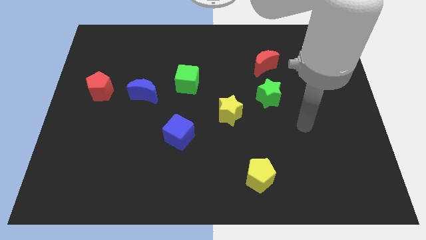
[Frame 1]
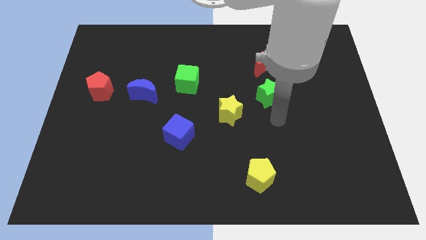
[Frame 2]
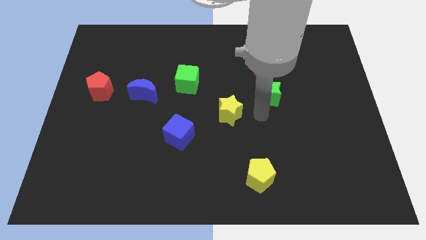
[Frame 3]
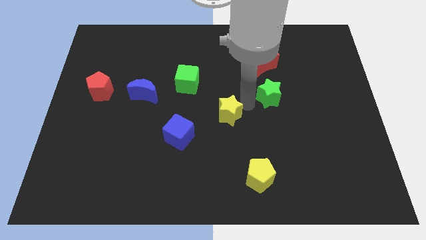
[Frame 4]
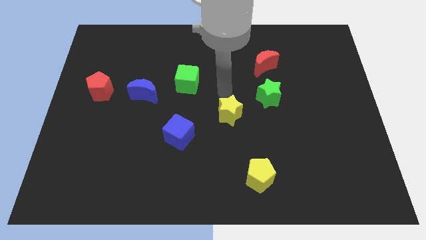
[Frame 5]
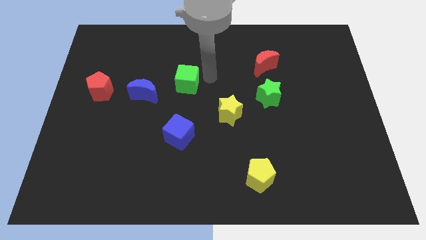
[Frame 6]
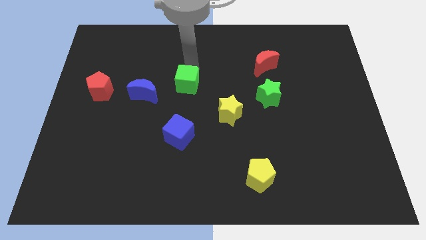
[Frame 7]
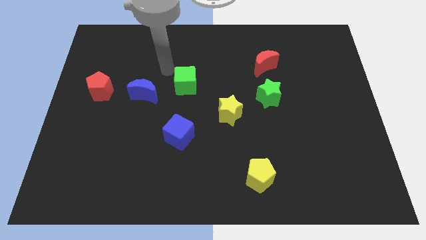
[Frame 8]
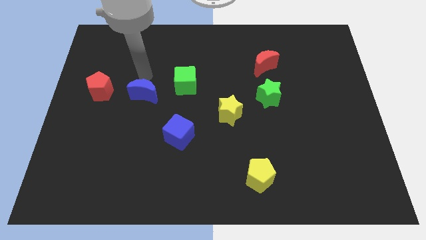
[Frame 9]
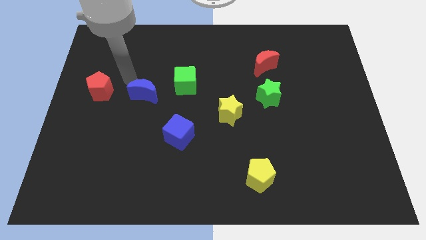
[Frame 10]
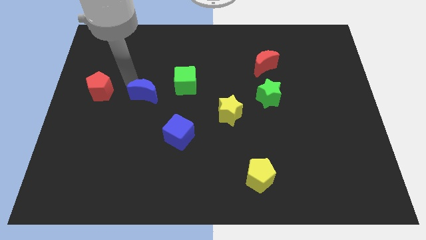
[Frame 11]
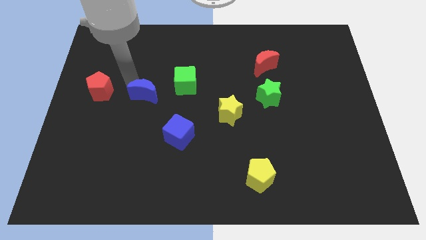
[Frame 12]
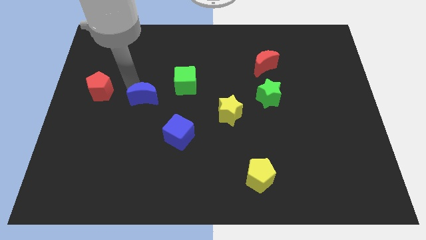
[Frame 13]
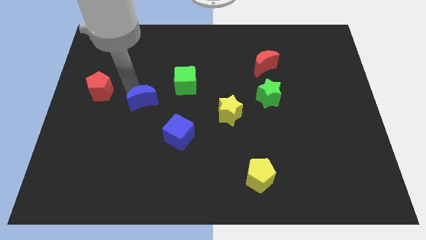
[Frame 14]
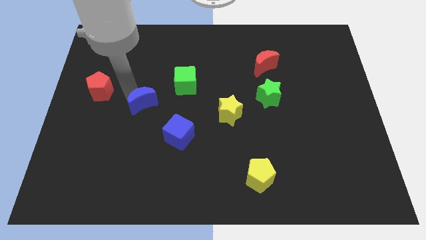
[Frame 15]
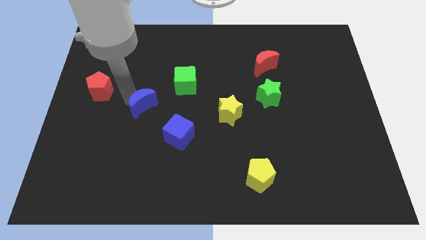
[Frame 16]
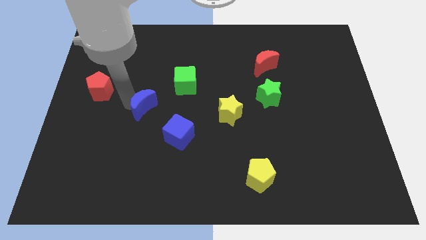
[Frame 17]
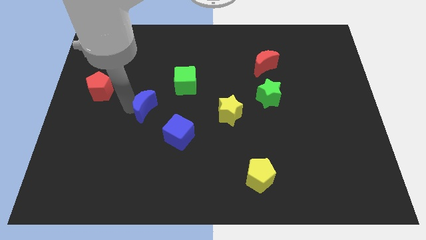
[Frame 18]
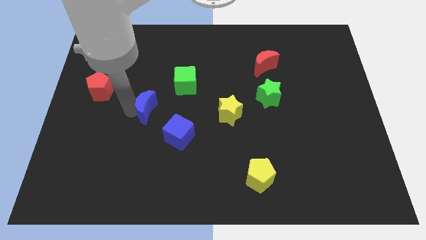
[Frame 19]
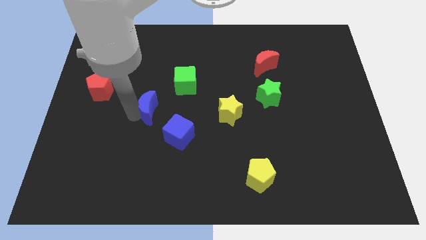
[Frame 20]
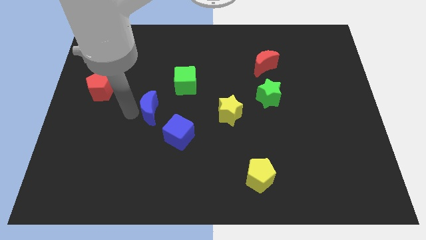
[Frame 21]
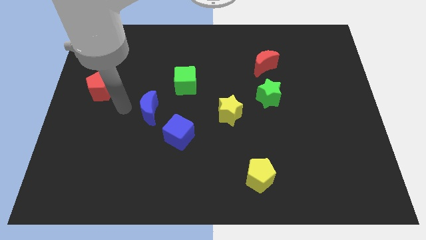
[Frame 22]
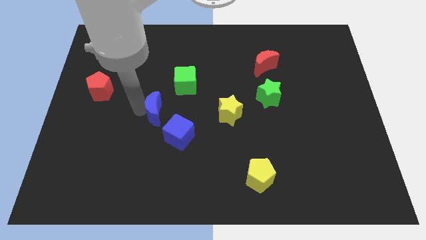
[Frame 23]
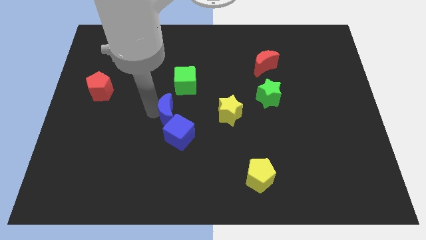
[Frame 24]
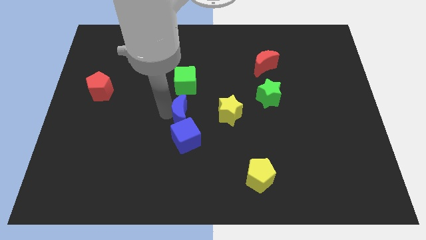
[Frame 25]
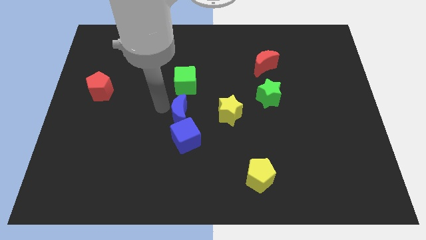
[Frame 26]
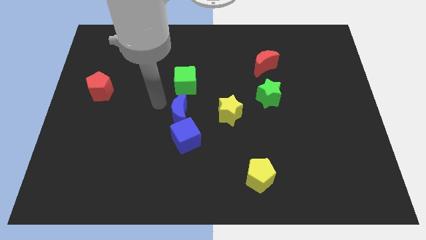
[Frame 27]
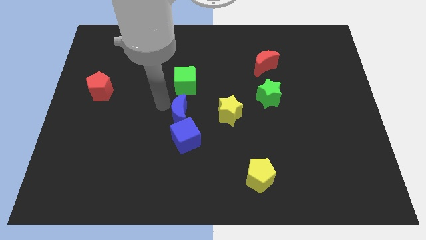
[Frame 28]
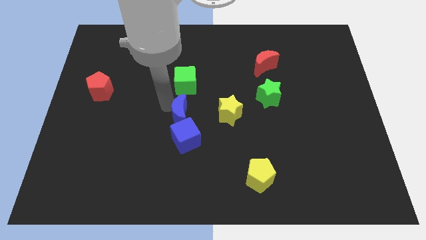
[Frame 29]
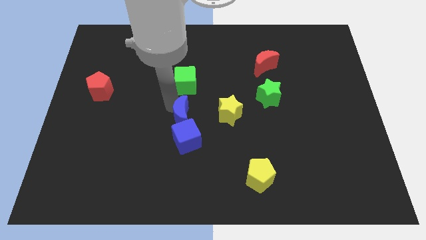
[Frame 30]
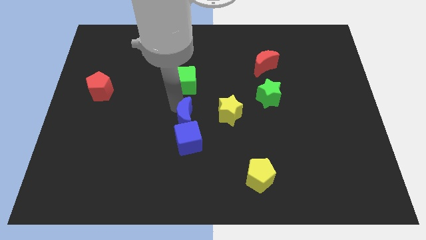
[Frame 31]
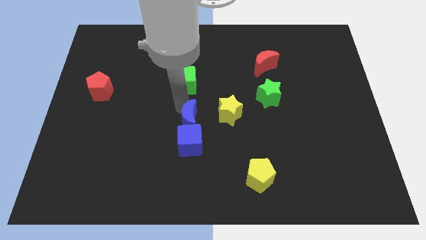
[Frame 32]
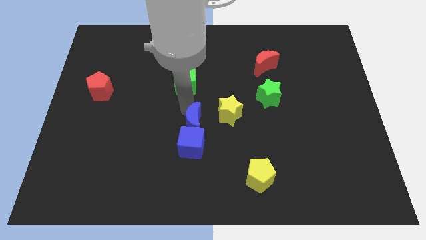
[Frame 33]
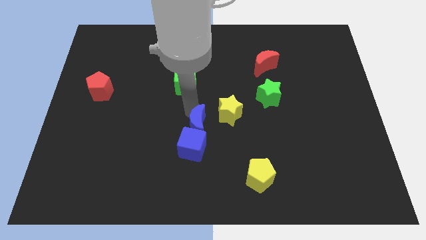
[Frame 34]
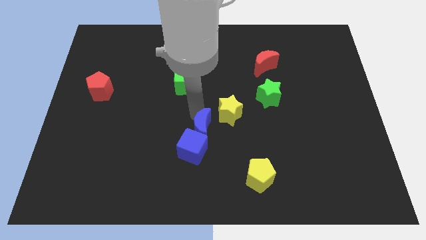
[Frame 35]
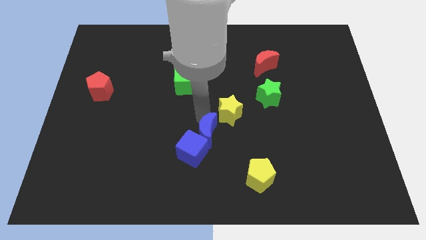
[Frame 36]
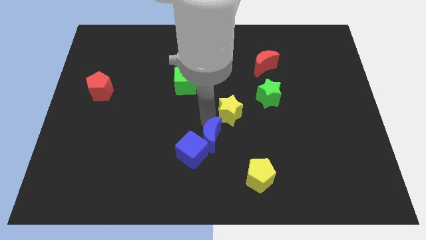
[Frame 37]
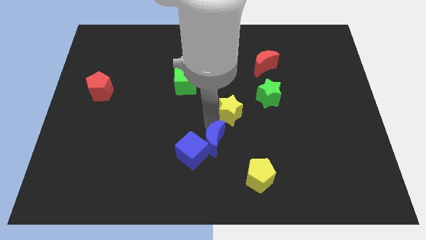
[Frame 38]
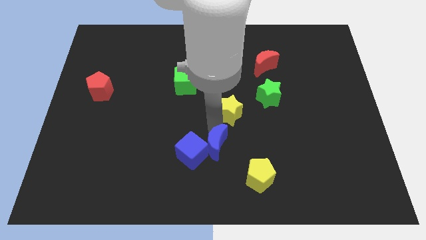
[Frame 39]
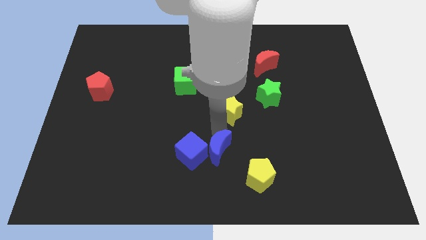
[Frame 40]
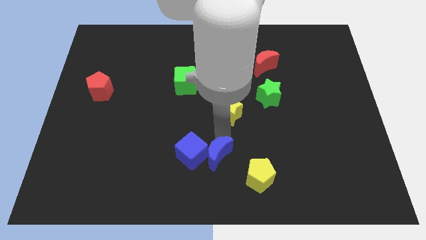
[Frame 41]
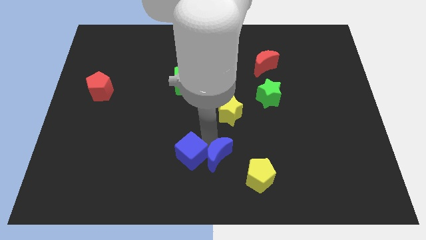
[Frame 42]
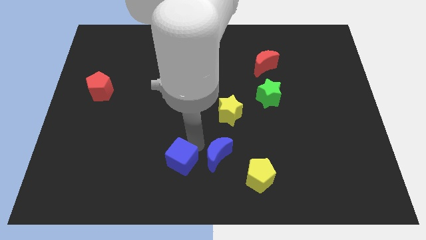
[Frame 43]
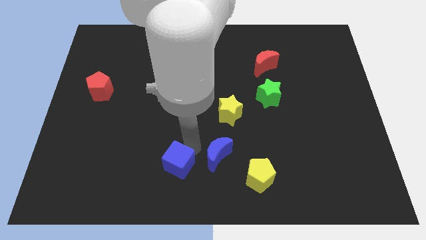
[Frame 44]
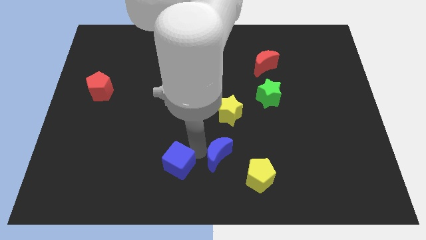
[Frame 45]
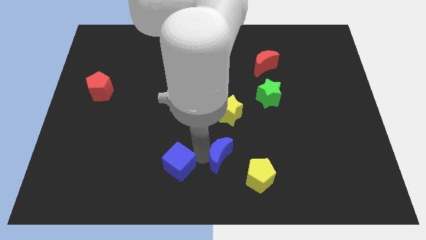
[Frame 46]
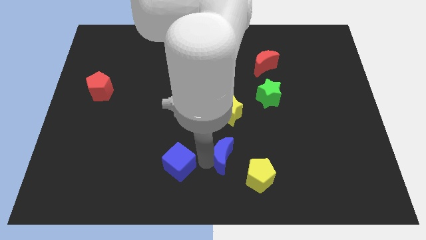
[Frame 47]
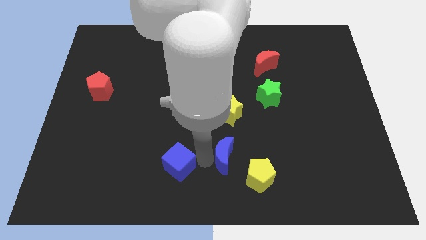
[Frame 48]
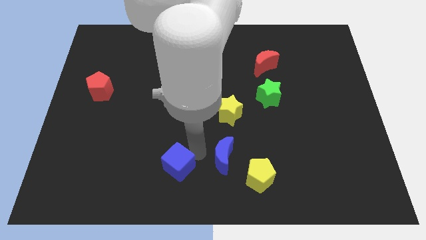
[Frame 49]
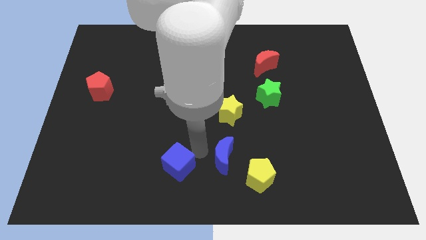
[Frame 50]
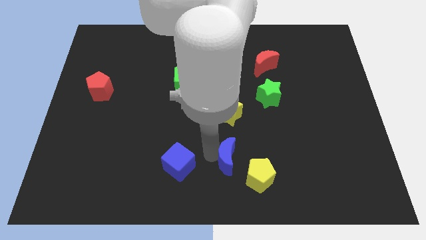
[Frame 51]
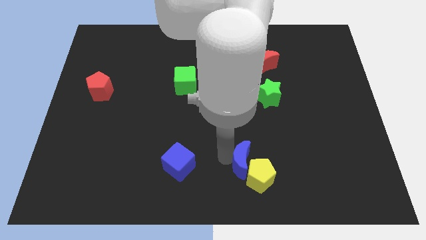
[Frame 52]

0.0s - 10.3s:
put the blue moon next to the yellow pentagon

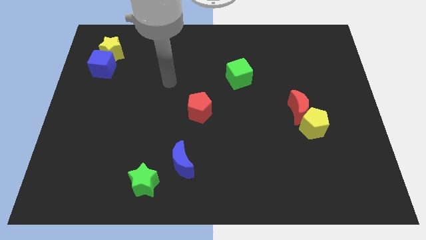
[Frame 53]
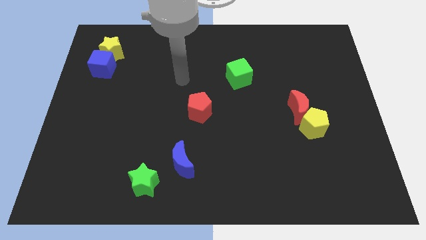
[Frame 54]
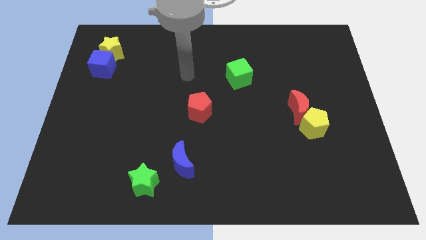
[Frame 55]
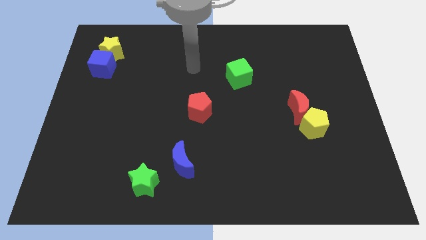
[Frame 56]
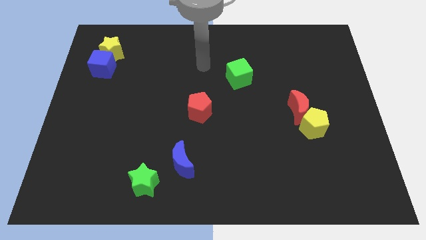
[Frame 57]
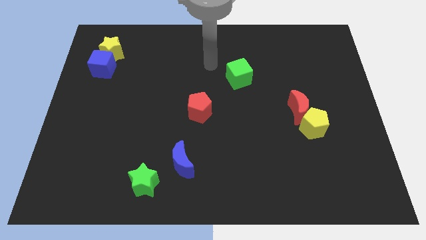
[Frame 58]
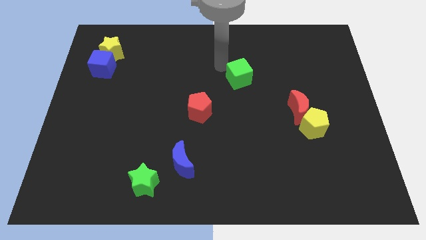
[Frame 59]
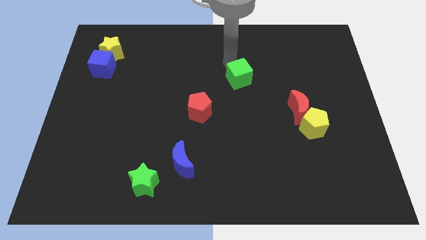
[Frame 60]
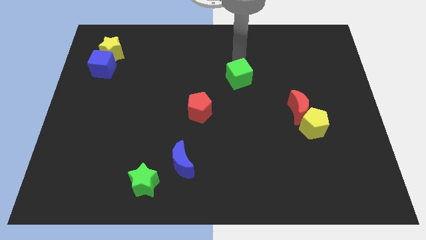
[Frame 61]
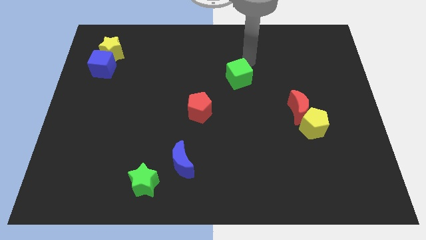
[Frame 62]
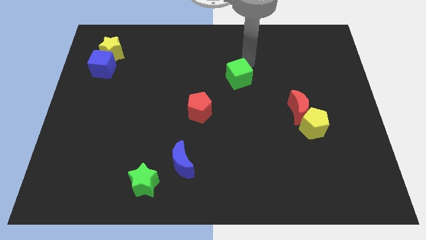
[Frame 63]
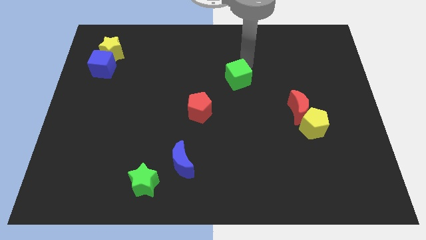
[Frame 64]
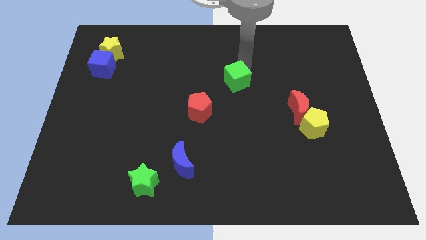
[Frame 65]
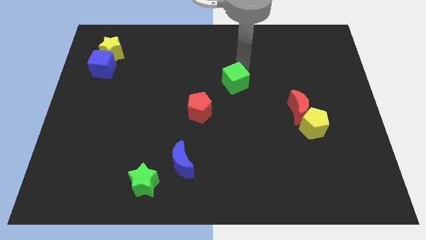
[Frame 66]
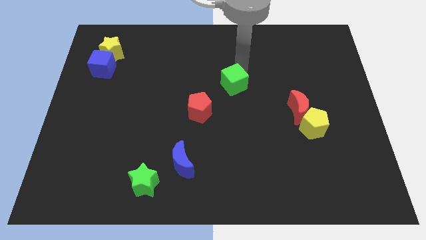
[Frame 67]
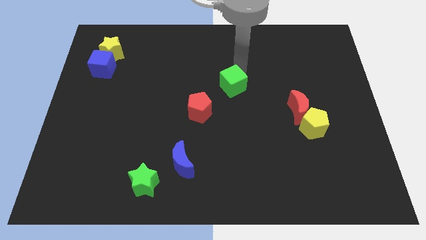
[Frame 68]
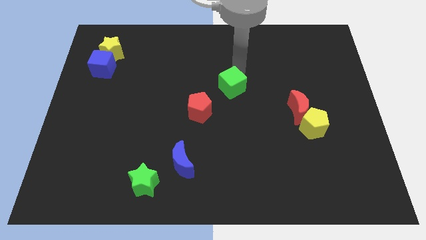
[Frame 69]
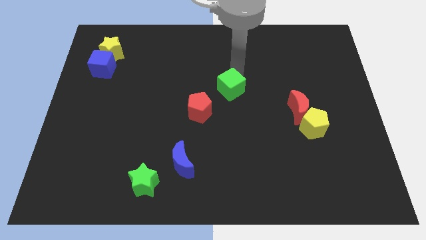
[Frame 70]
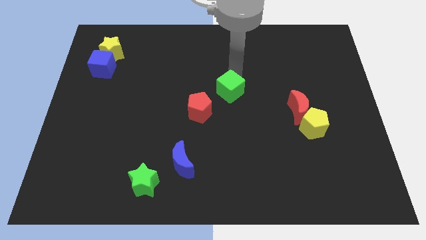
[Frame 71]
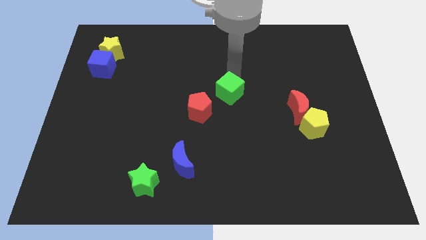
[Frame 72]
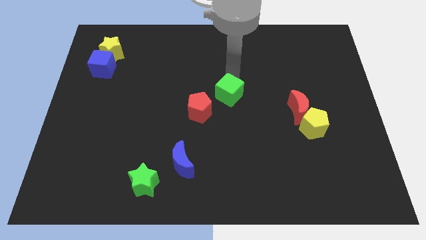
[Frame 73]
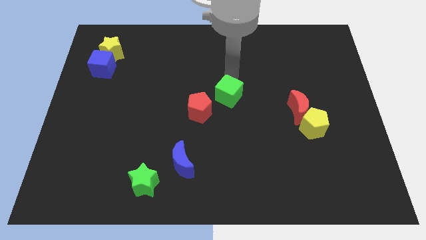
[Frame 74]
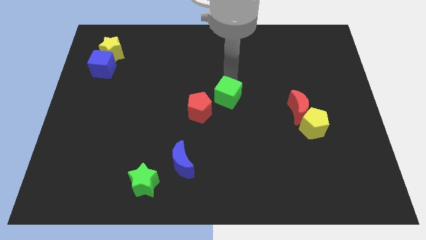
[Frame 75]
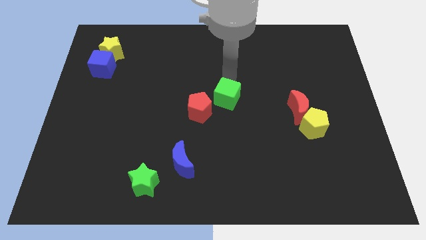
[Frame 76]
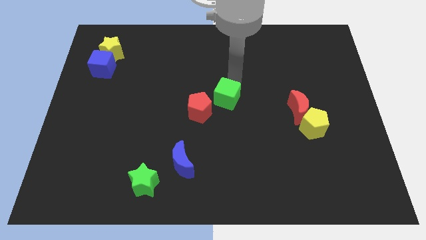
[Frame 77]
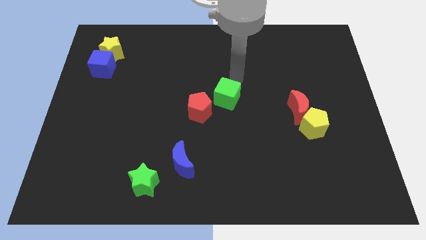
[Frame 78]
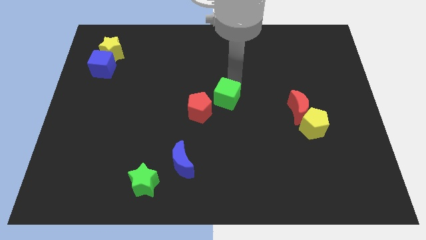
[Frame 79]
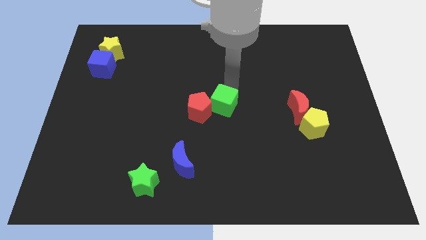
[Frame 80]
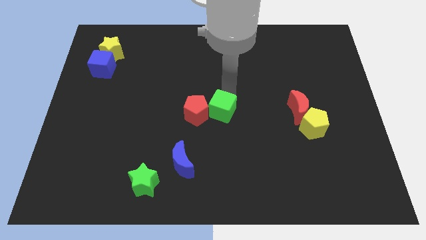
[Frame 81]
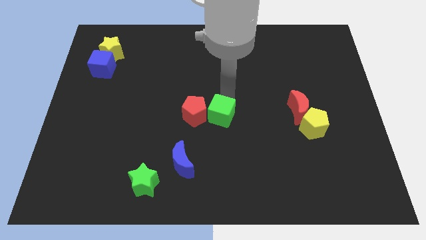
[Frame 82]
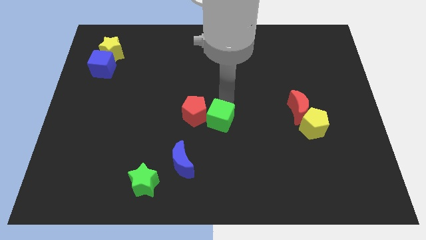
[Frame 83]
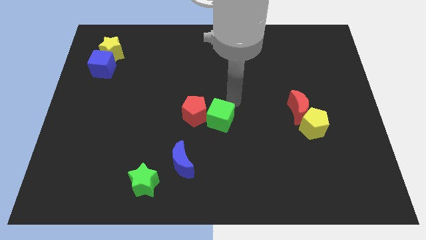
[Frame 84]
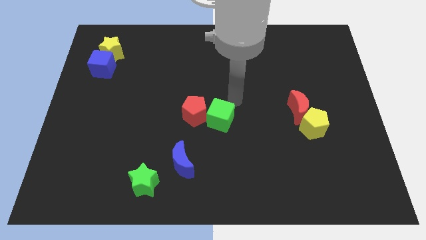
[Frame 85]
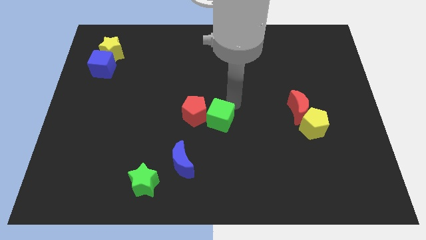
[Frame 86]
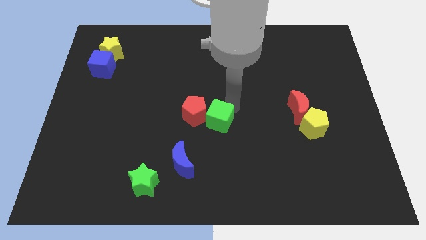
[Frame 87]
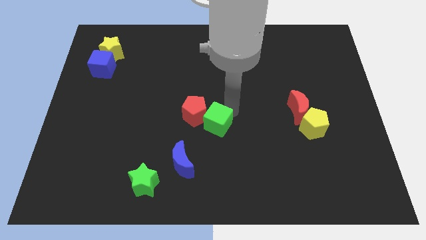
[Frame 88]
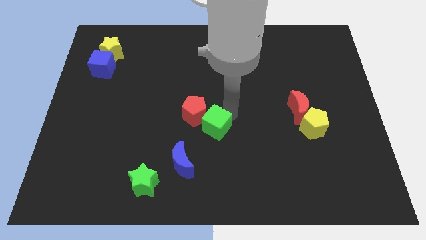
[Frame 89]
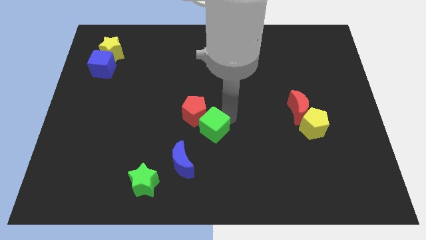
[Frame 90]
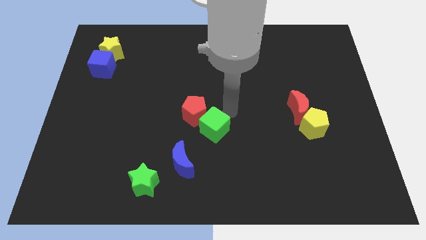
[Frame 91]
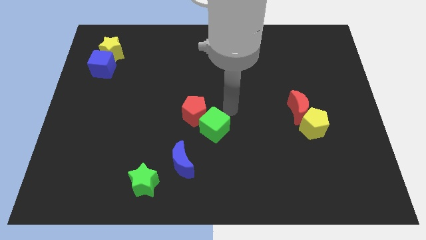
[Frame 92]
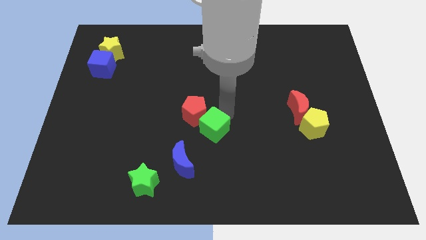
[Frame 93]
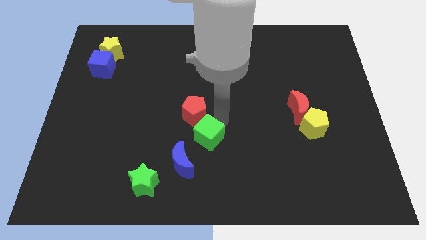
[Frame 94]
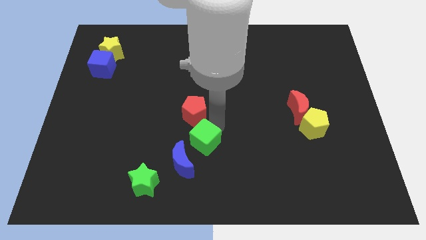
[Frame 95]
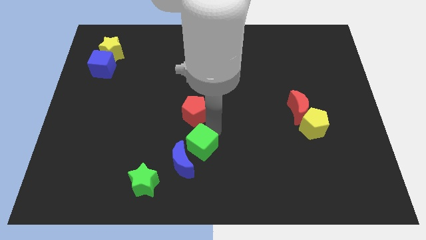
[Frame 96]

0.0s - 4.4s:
move the green cube next to the blue moon
